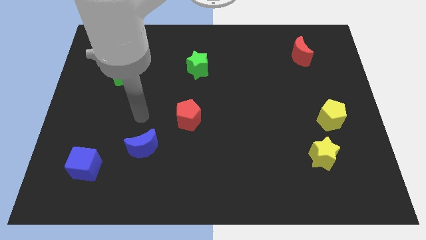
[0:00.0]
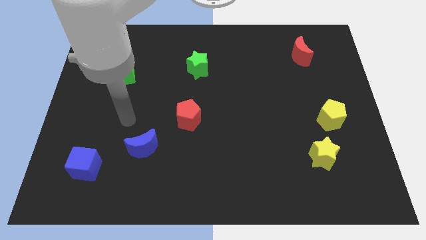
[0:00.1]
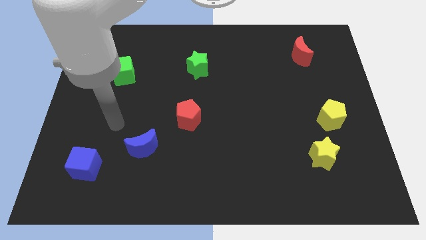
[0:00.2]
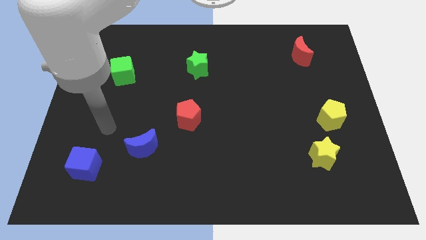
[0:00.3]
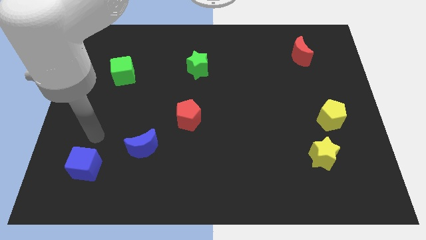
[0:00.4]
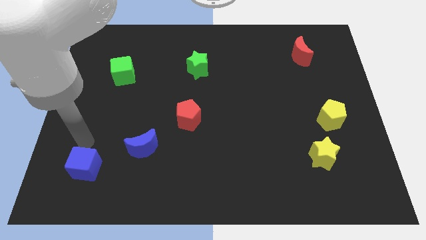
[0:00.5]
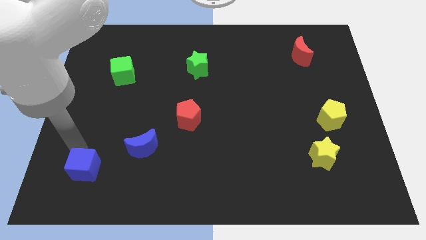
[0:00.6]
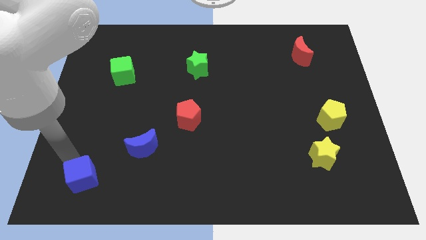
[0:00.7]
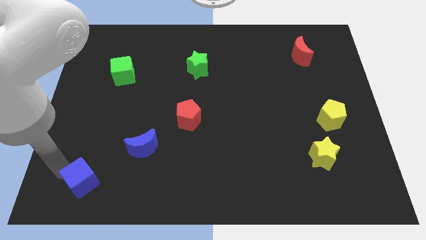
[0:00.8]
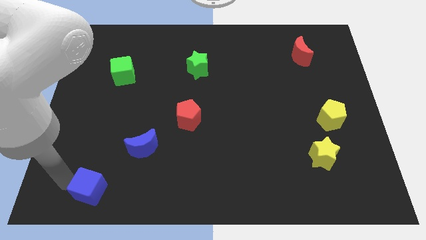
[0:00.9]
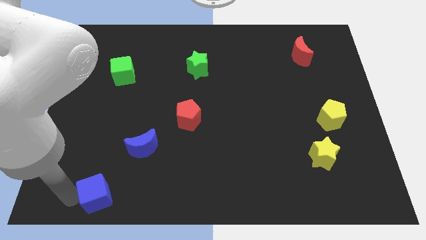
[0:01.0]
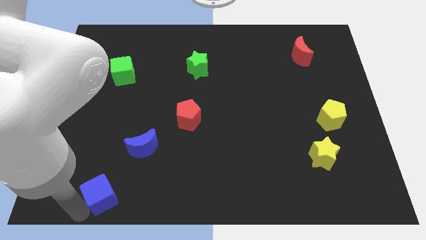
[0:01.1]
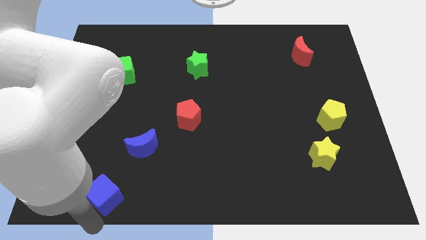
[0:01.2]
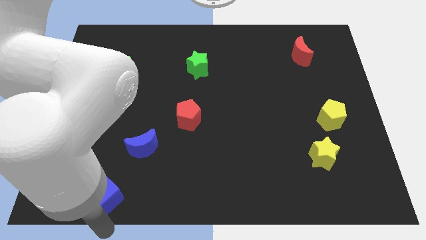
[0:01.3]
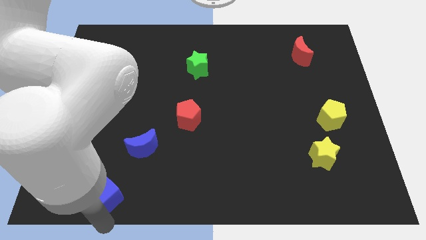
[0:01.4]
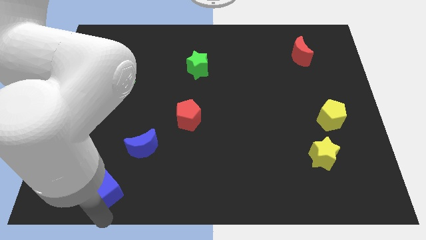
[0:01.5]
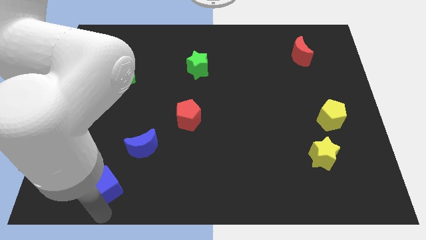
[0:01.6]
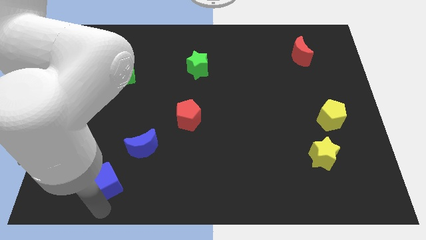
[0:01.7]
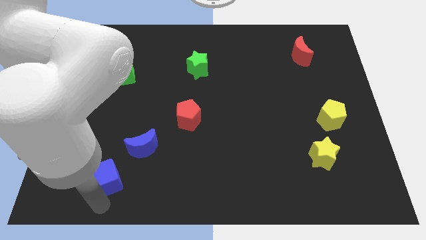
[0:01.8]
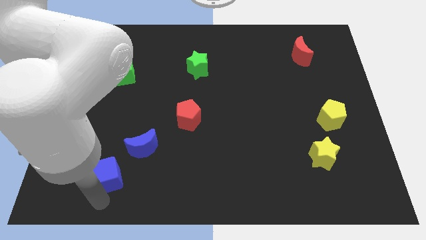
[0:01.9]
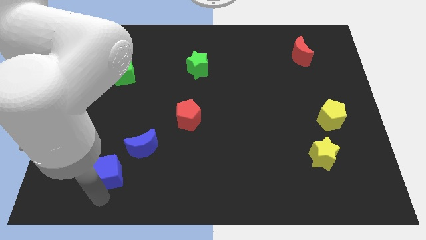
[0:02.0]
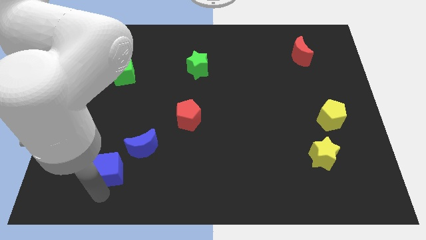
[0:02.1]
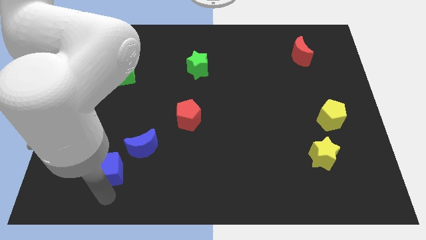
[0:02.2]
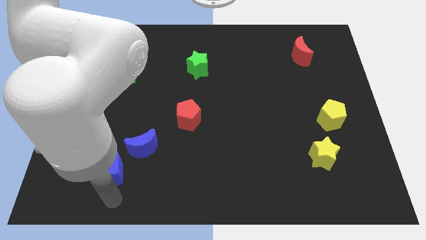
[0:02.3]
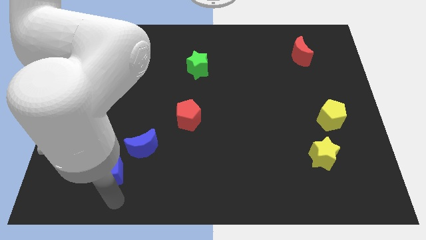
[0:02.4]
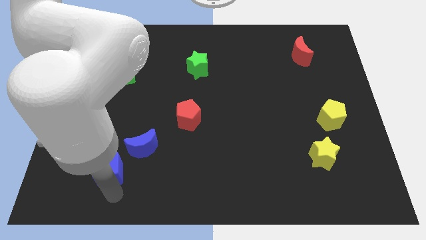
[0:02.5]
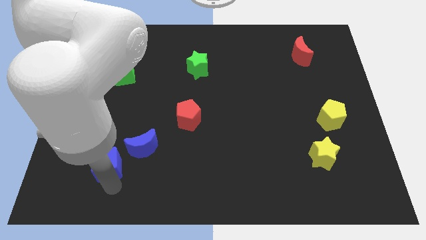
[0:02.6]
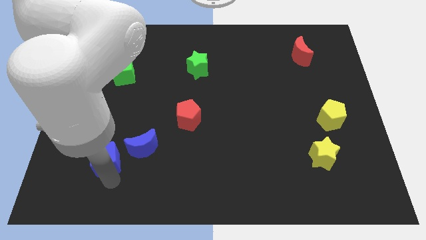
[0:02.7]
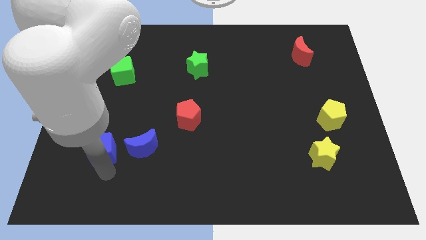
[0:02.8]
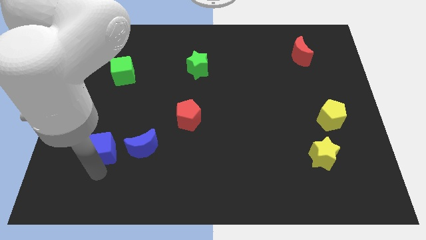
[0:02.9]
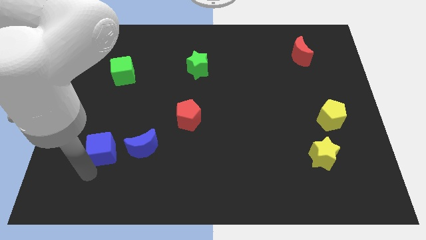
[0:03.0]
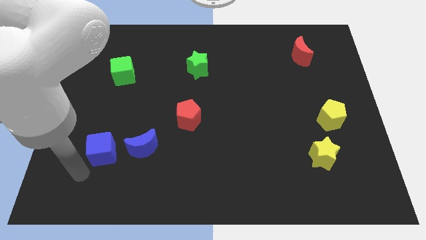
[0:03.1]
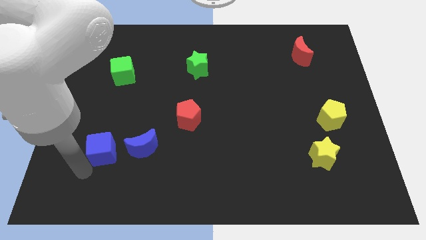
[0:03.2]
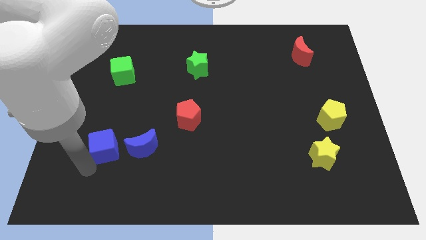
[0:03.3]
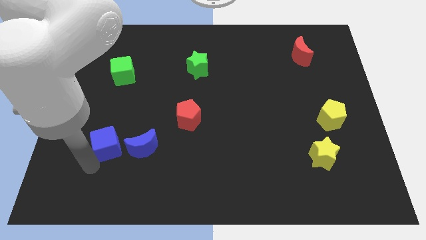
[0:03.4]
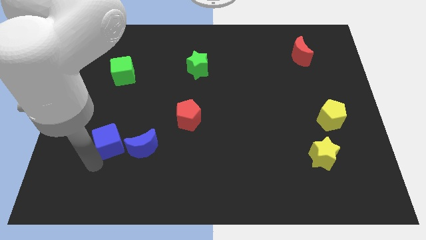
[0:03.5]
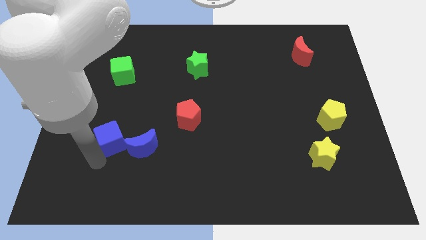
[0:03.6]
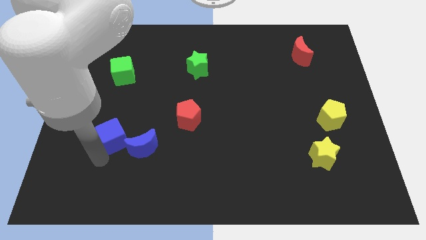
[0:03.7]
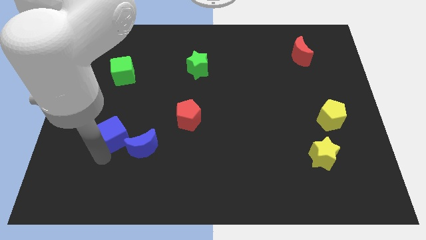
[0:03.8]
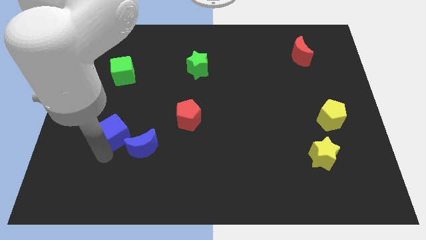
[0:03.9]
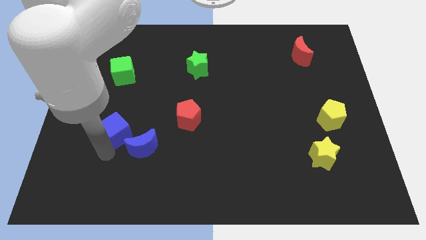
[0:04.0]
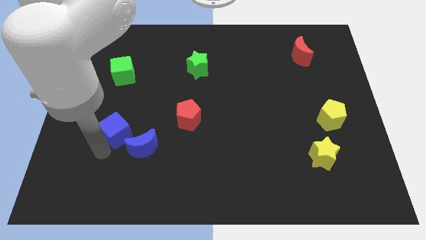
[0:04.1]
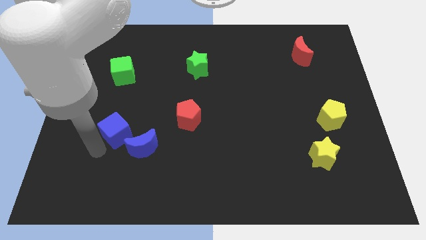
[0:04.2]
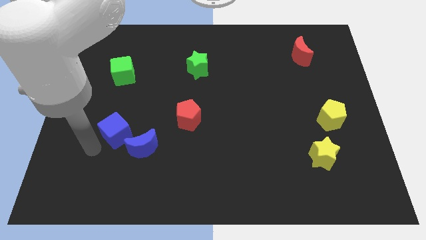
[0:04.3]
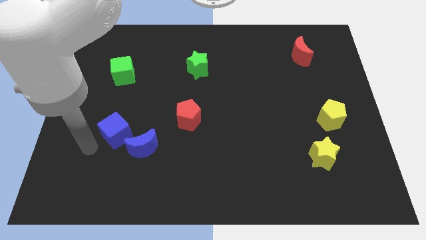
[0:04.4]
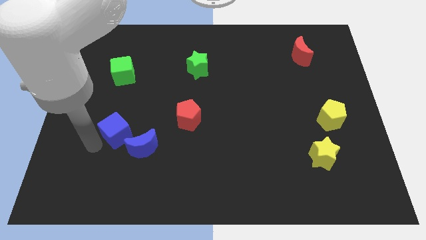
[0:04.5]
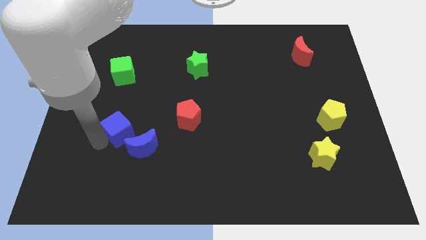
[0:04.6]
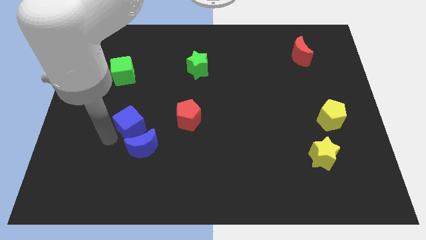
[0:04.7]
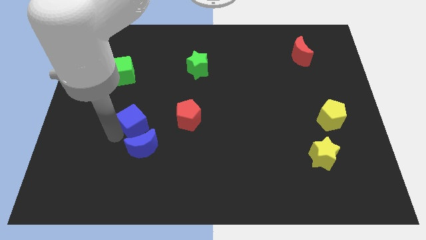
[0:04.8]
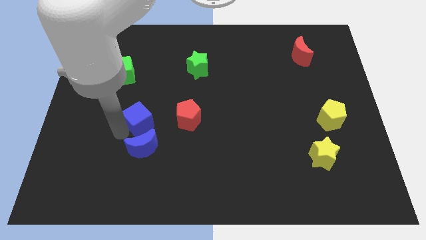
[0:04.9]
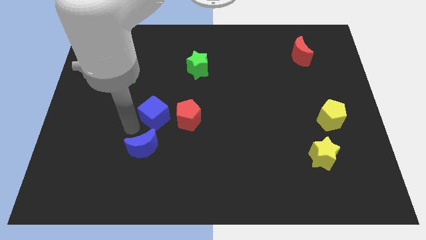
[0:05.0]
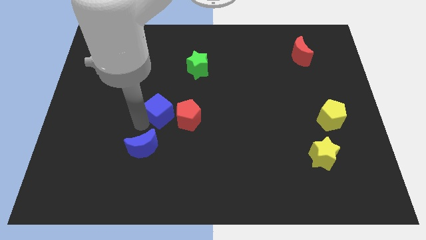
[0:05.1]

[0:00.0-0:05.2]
push the blue cube up and then right

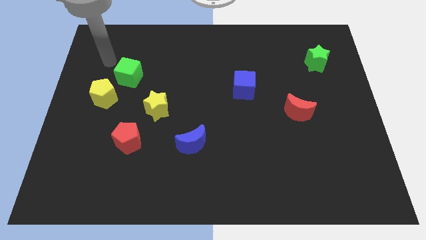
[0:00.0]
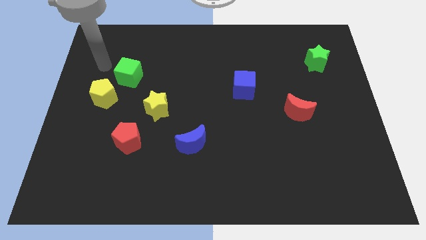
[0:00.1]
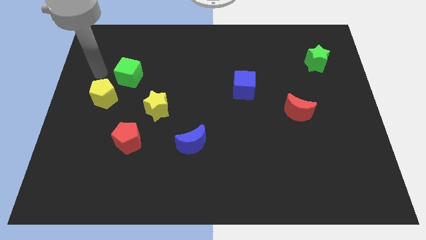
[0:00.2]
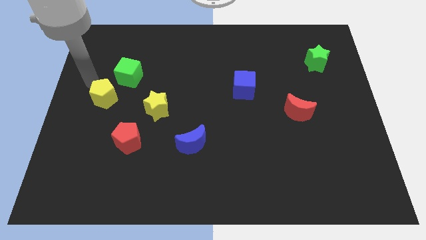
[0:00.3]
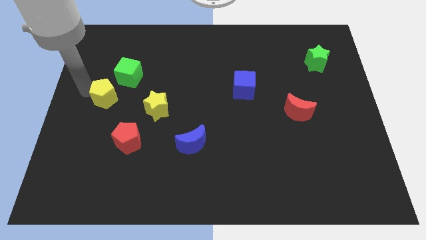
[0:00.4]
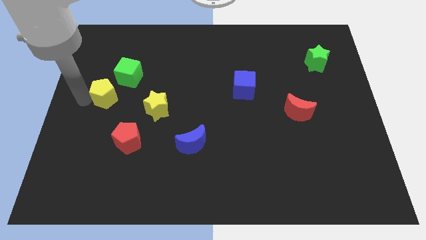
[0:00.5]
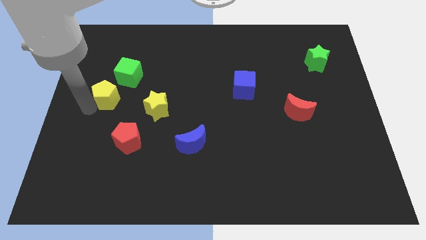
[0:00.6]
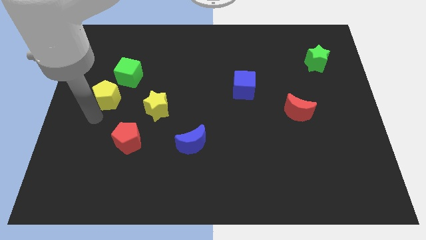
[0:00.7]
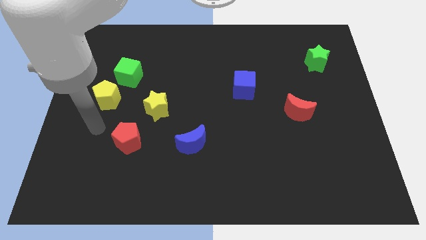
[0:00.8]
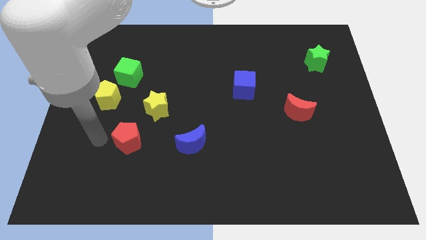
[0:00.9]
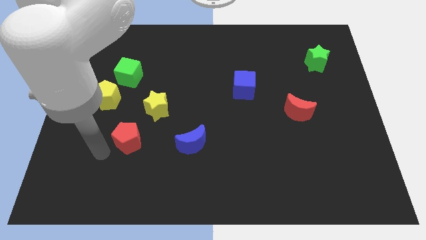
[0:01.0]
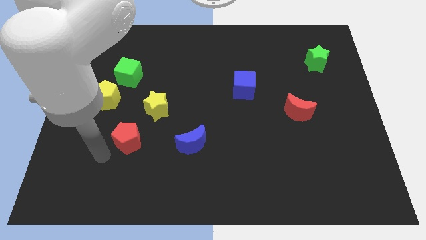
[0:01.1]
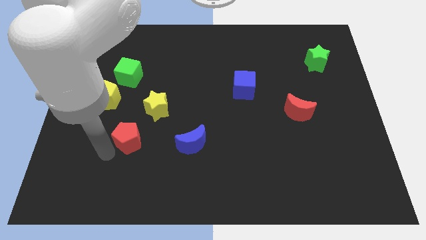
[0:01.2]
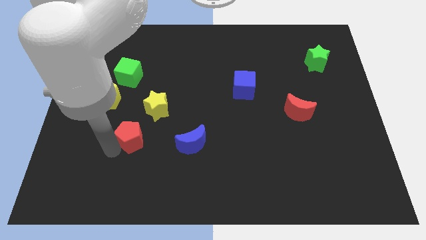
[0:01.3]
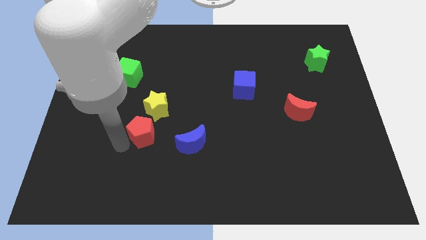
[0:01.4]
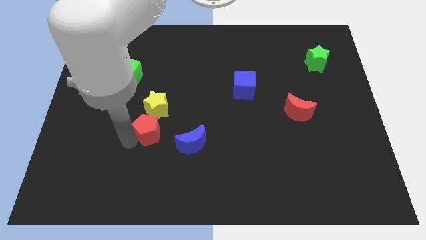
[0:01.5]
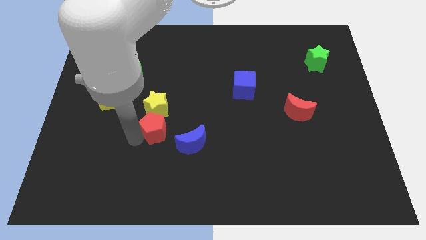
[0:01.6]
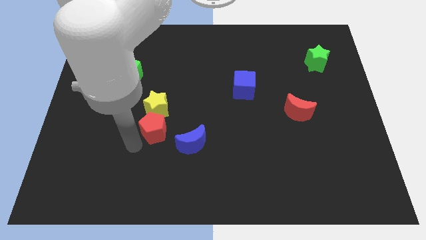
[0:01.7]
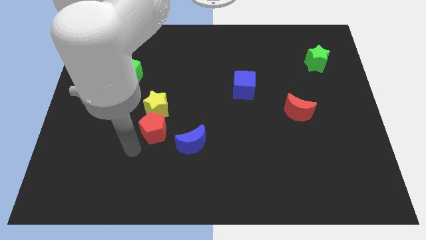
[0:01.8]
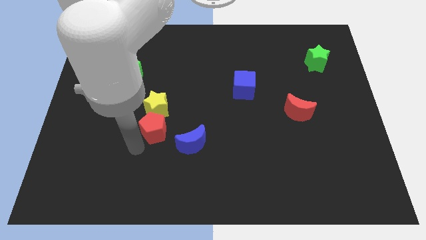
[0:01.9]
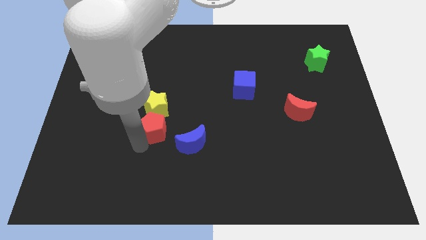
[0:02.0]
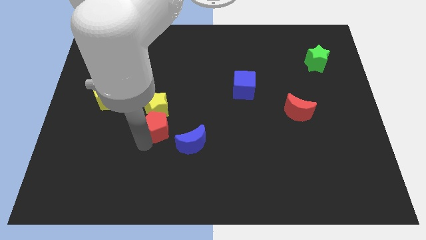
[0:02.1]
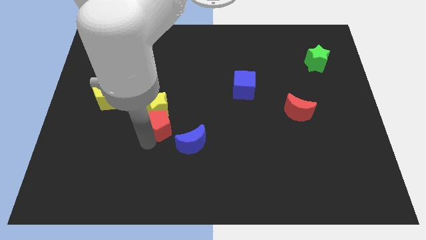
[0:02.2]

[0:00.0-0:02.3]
slide the red pentagon upwards and then right a bit

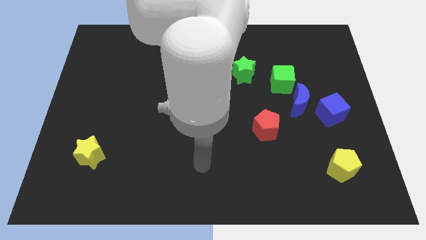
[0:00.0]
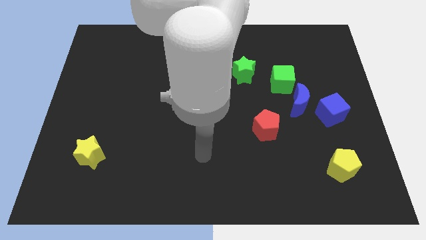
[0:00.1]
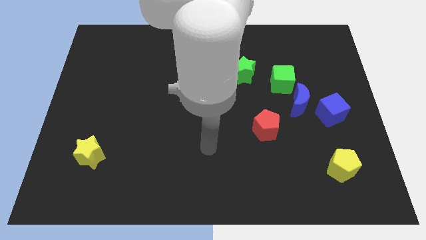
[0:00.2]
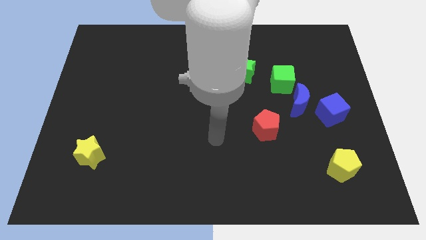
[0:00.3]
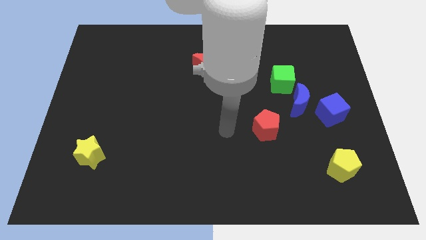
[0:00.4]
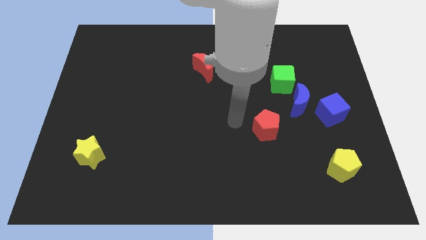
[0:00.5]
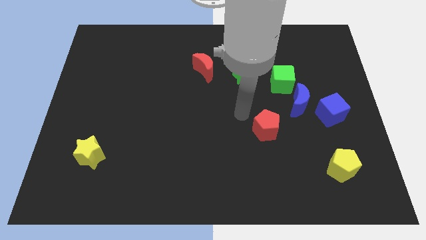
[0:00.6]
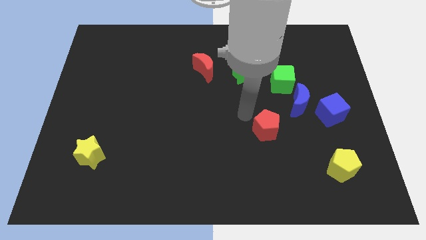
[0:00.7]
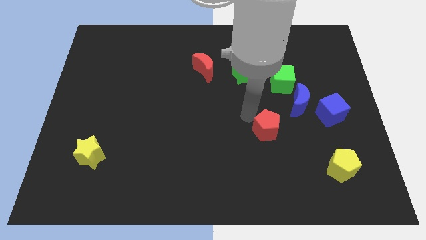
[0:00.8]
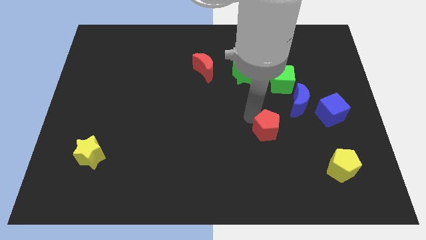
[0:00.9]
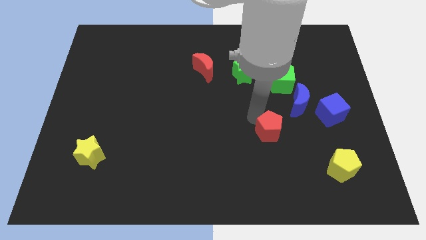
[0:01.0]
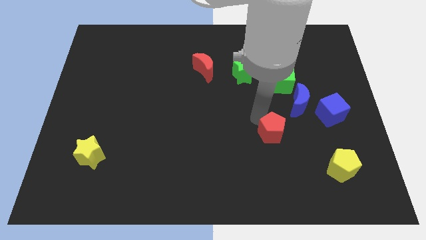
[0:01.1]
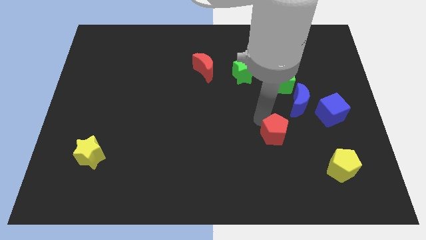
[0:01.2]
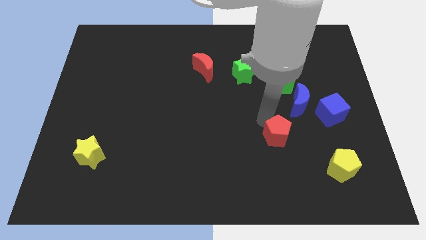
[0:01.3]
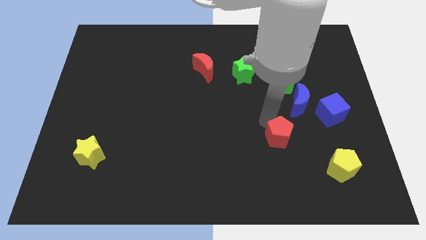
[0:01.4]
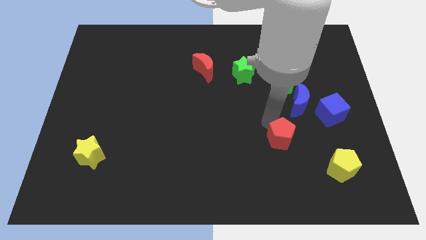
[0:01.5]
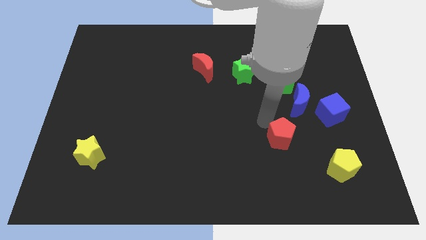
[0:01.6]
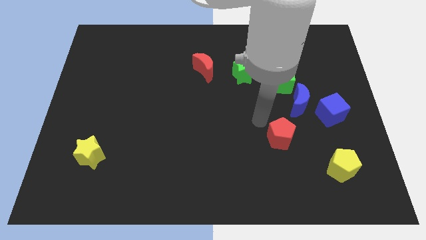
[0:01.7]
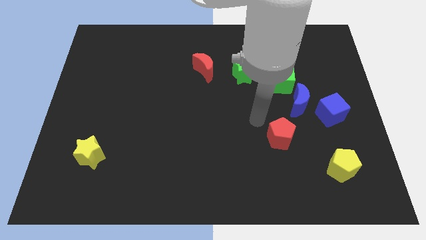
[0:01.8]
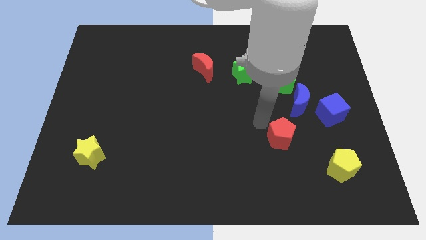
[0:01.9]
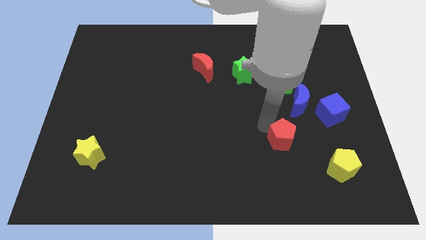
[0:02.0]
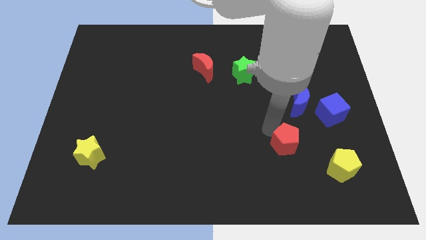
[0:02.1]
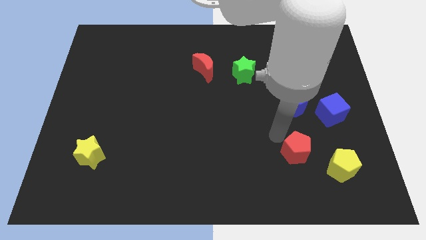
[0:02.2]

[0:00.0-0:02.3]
slightly slide the red pentagon down and to the right diagonally
